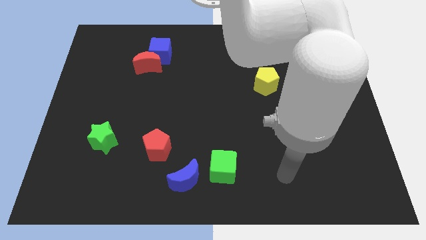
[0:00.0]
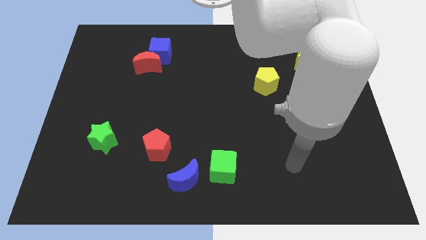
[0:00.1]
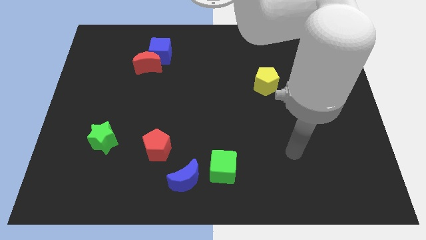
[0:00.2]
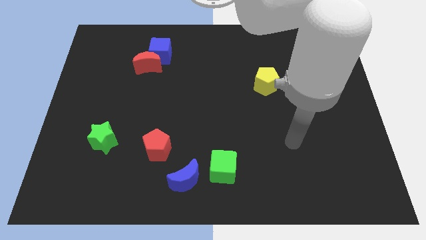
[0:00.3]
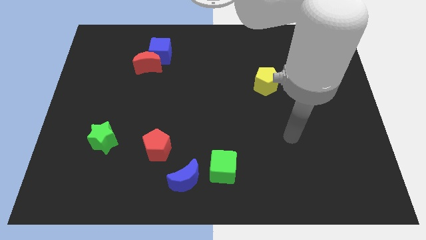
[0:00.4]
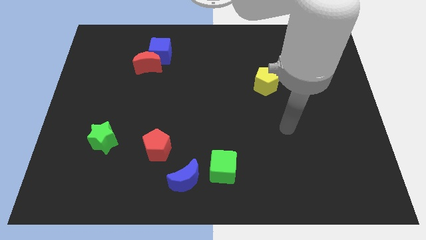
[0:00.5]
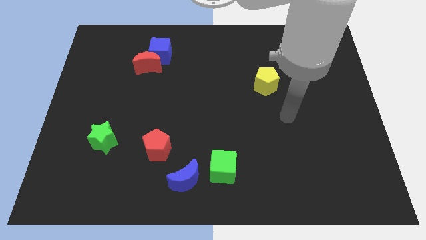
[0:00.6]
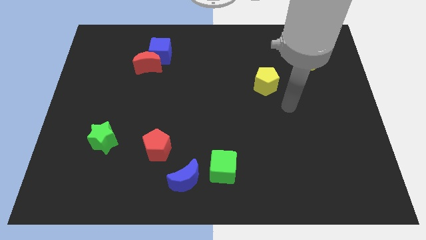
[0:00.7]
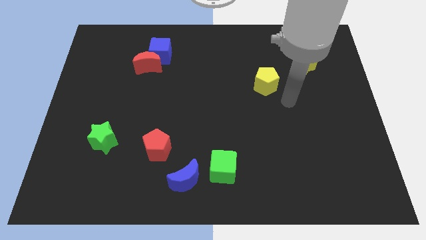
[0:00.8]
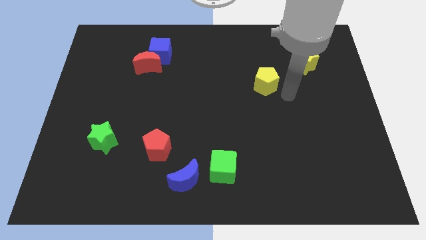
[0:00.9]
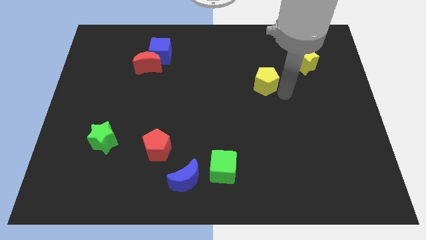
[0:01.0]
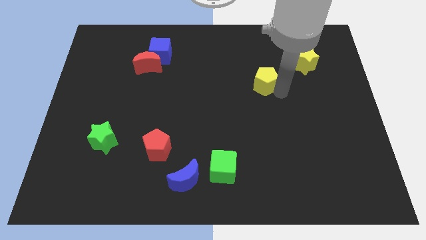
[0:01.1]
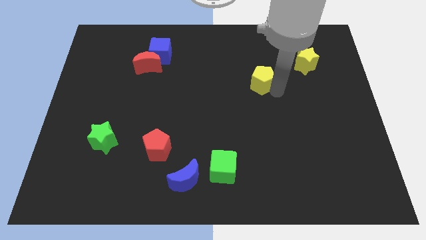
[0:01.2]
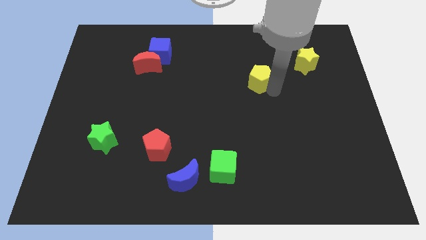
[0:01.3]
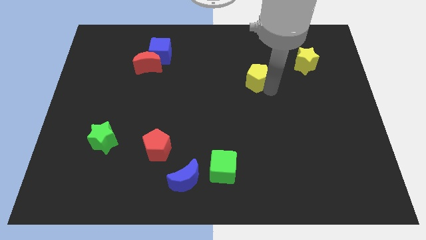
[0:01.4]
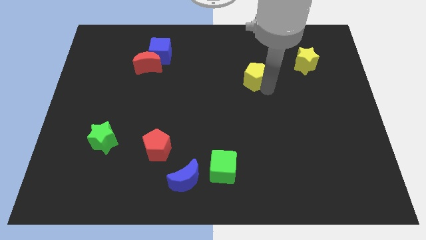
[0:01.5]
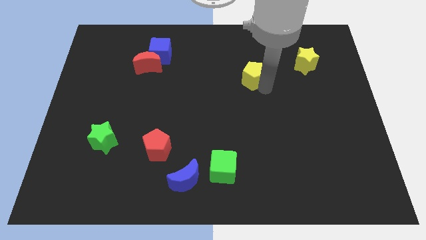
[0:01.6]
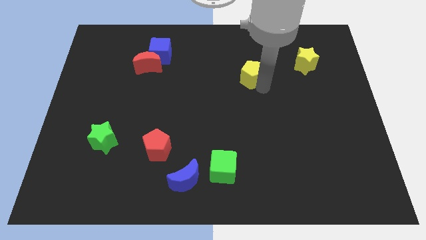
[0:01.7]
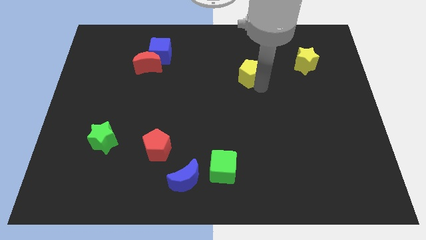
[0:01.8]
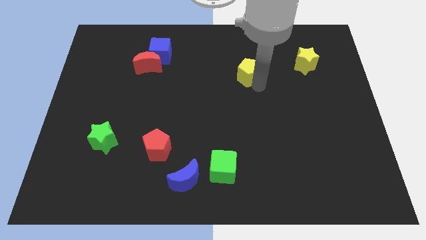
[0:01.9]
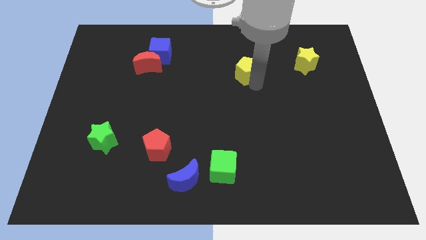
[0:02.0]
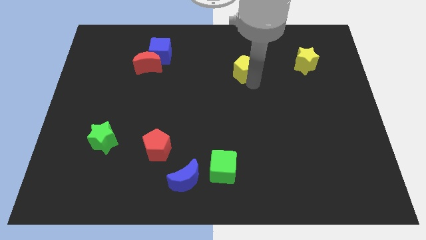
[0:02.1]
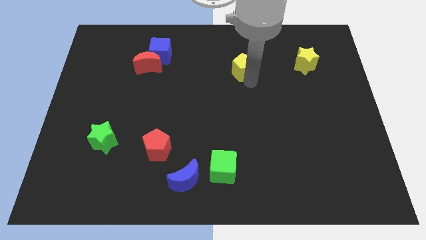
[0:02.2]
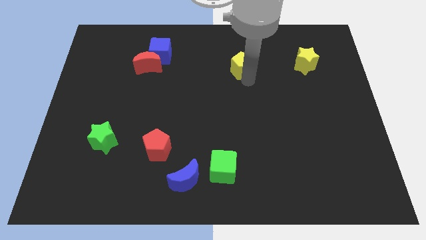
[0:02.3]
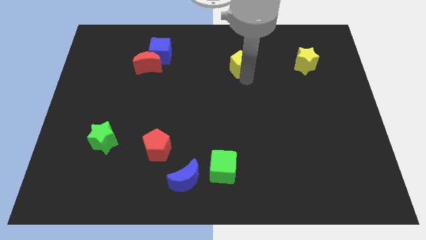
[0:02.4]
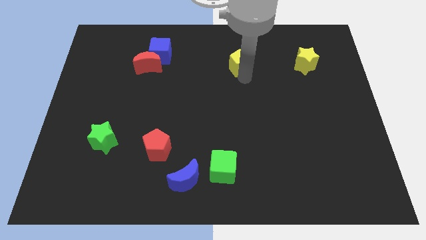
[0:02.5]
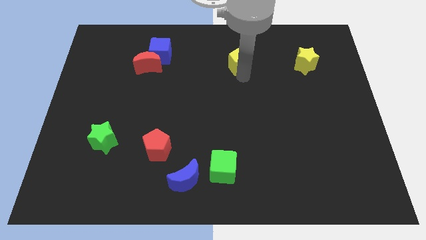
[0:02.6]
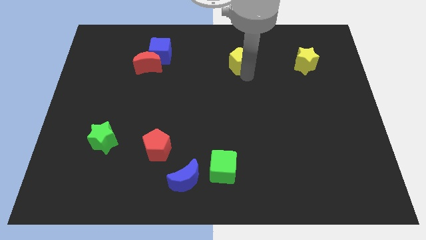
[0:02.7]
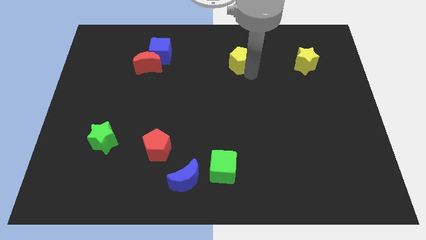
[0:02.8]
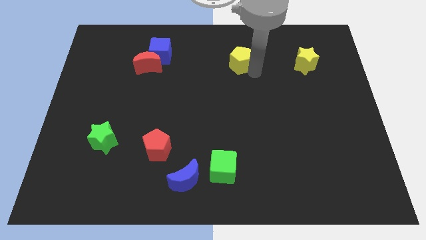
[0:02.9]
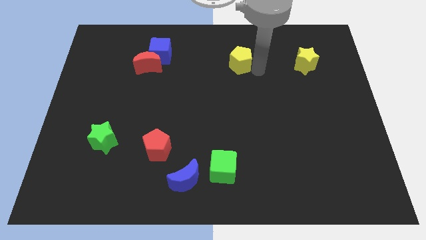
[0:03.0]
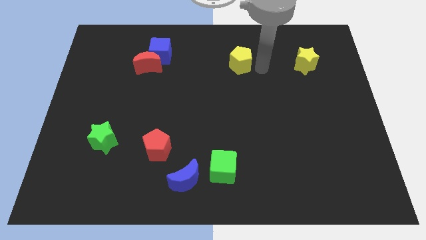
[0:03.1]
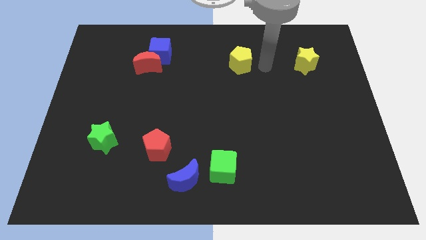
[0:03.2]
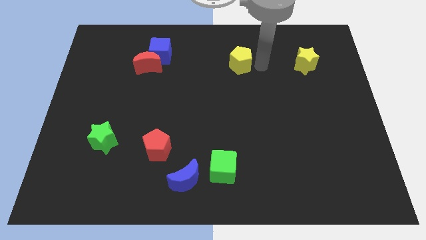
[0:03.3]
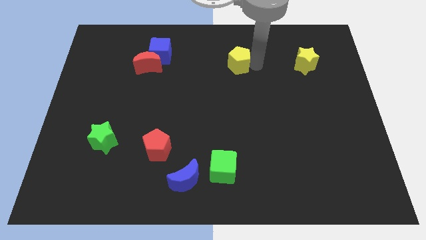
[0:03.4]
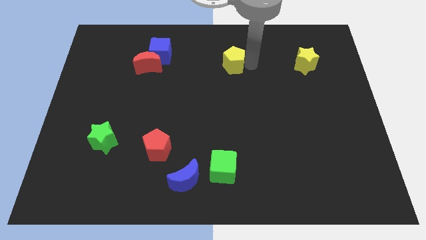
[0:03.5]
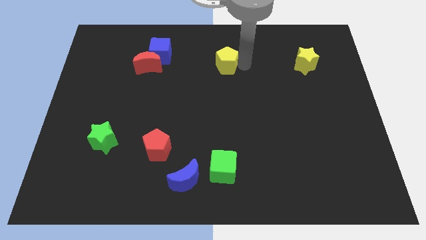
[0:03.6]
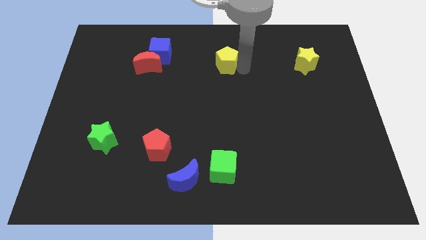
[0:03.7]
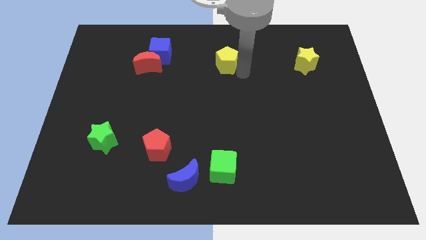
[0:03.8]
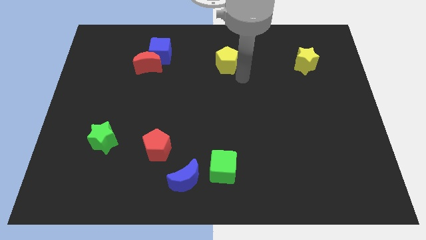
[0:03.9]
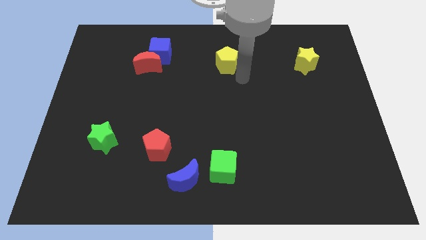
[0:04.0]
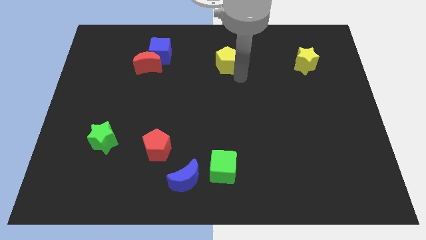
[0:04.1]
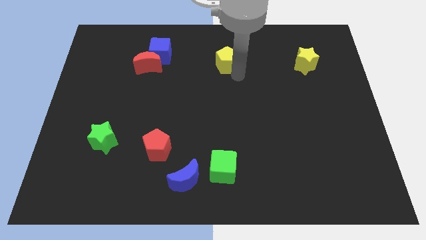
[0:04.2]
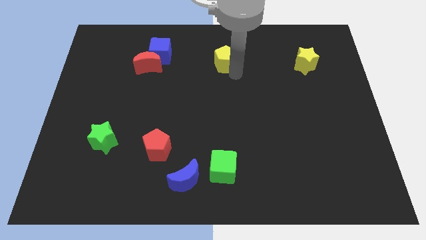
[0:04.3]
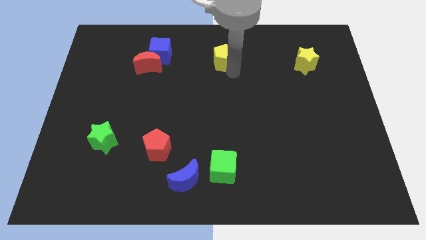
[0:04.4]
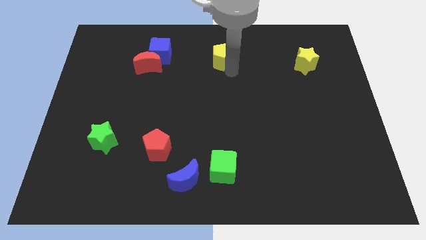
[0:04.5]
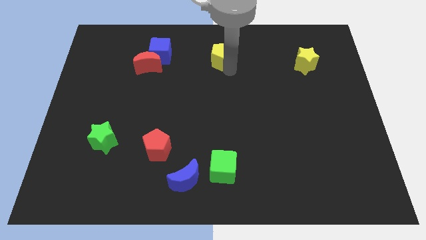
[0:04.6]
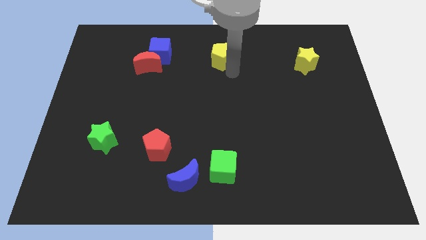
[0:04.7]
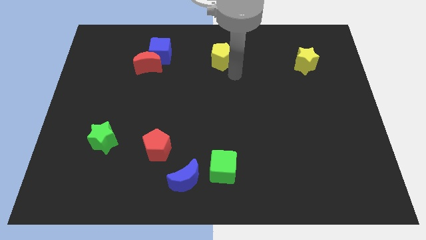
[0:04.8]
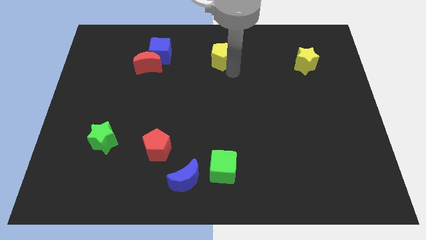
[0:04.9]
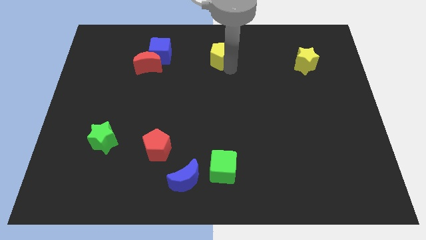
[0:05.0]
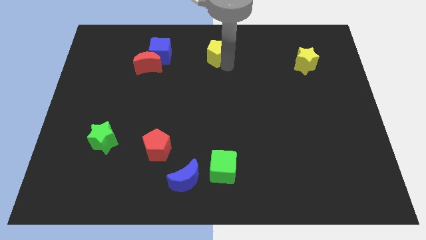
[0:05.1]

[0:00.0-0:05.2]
slide the yellow pentagon to the top

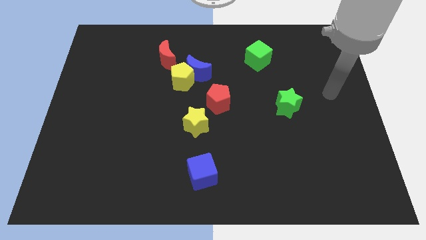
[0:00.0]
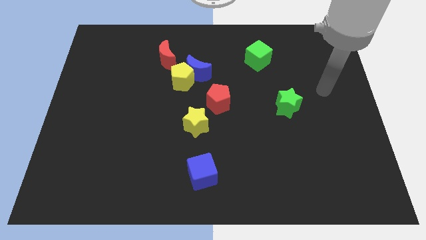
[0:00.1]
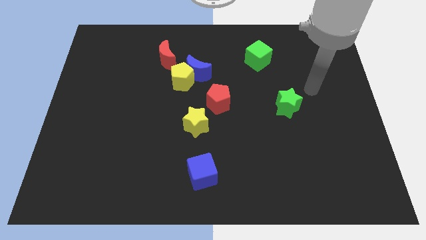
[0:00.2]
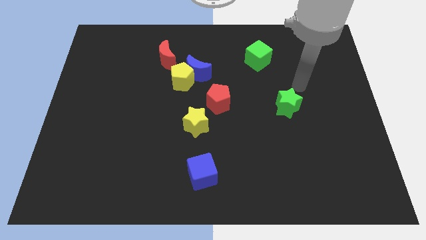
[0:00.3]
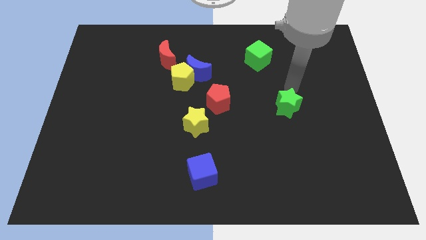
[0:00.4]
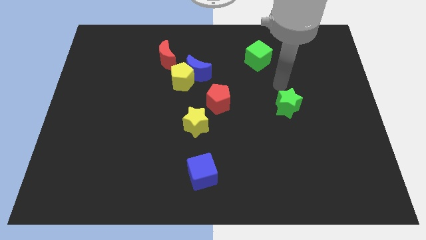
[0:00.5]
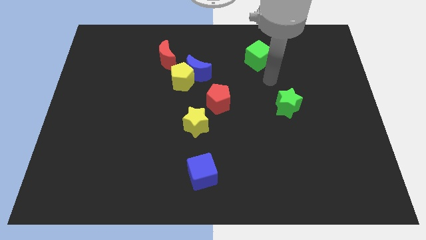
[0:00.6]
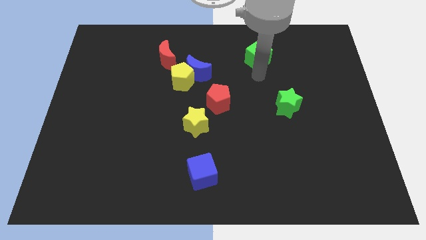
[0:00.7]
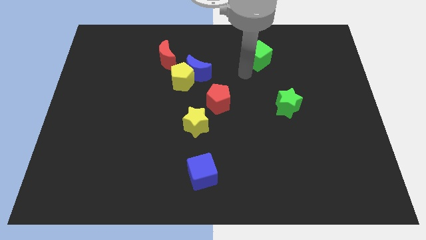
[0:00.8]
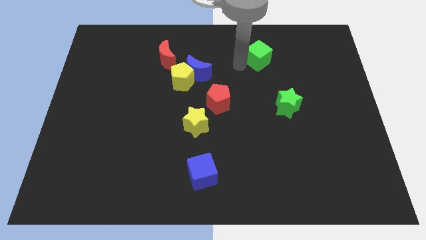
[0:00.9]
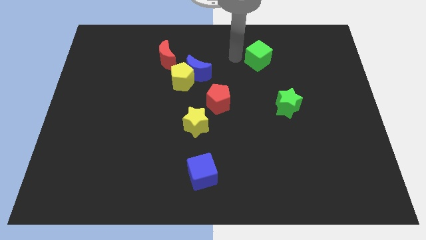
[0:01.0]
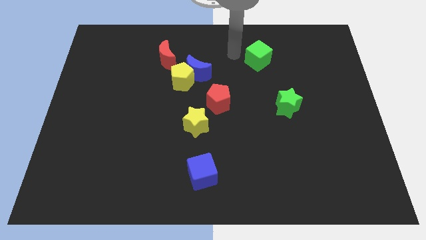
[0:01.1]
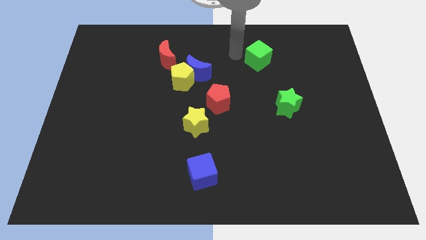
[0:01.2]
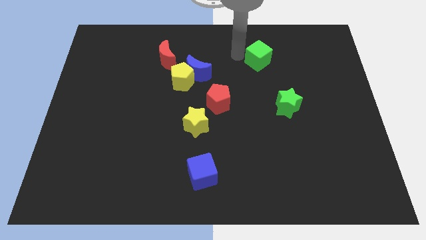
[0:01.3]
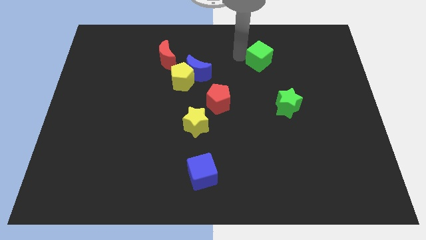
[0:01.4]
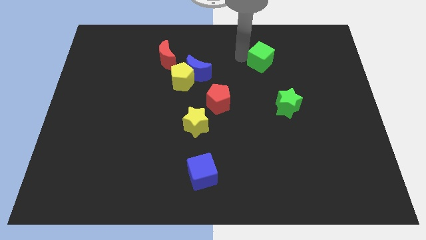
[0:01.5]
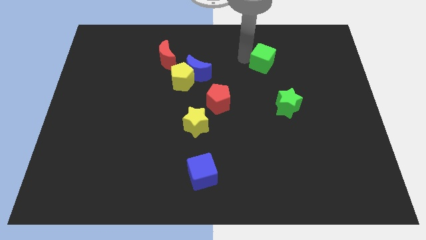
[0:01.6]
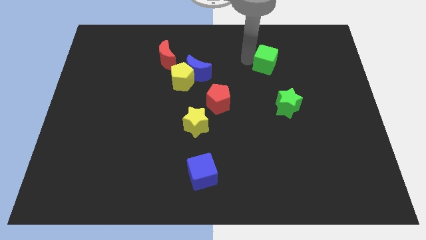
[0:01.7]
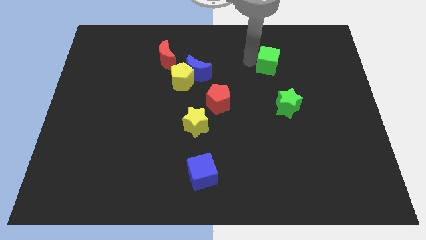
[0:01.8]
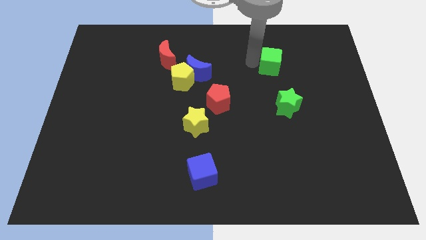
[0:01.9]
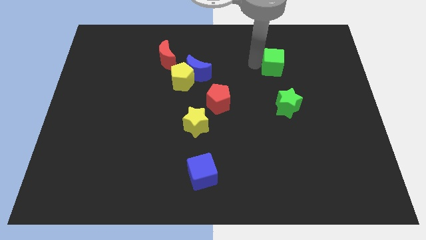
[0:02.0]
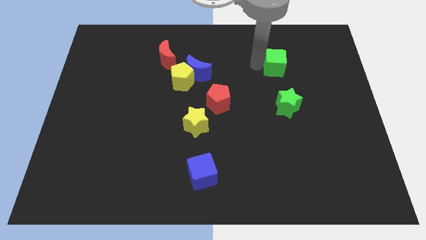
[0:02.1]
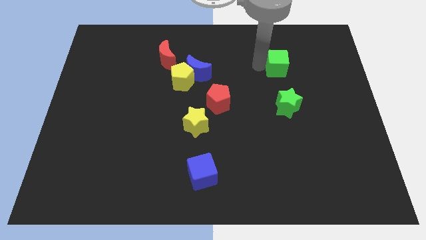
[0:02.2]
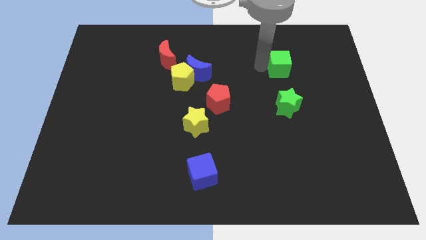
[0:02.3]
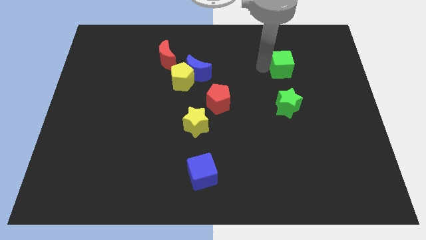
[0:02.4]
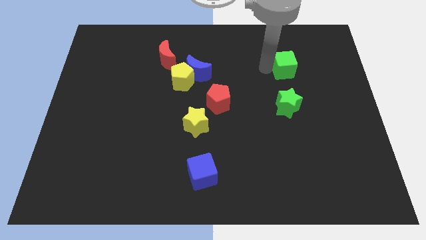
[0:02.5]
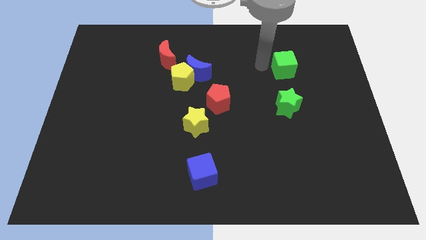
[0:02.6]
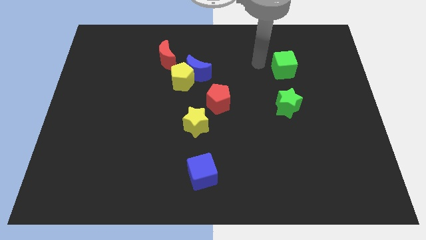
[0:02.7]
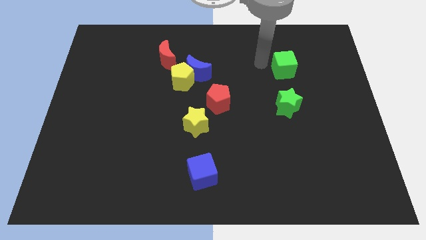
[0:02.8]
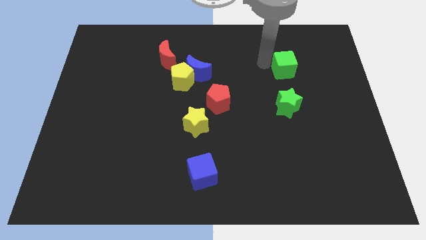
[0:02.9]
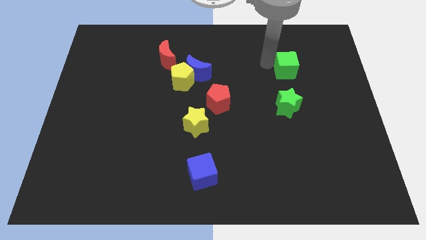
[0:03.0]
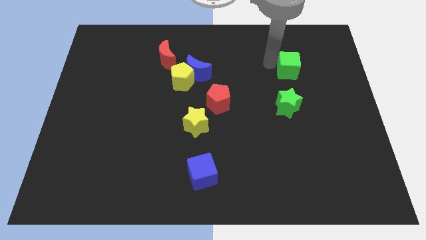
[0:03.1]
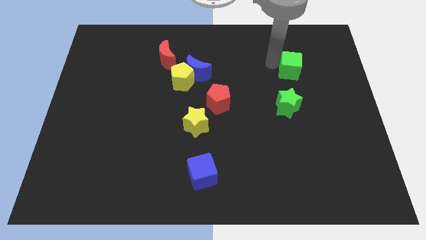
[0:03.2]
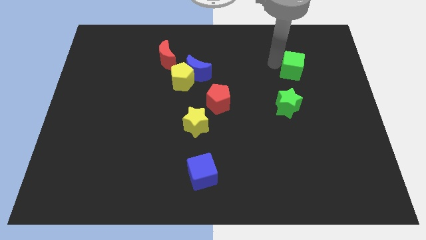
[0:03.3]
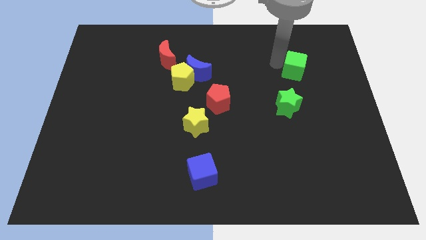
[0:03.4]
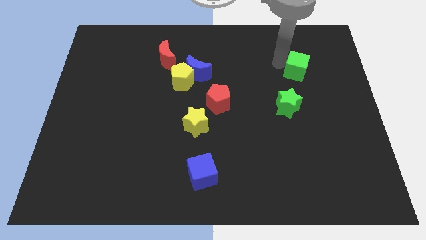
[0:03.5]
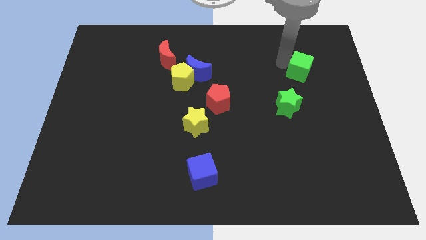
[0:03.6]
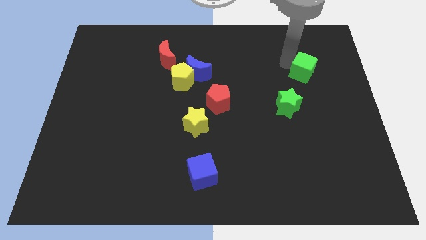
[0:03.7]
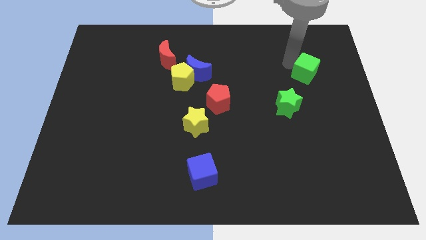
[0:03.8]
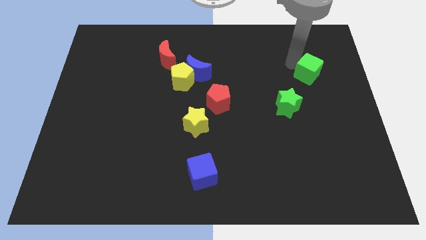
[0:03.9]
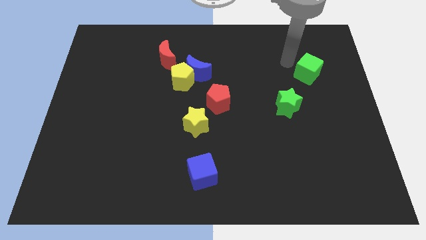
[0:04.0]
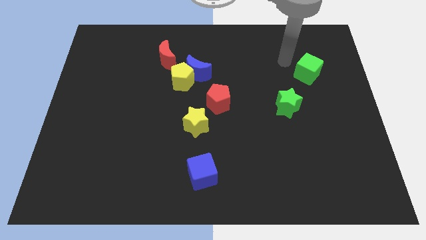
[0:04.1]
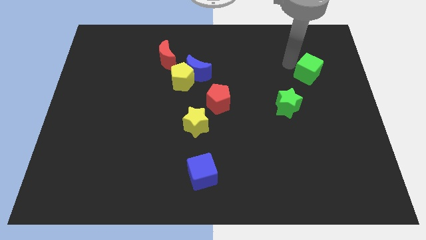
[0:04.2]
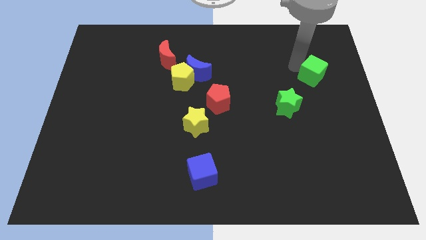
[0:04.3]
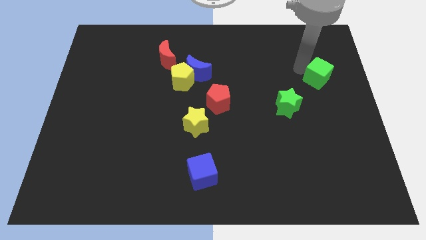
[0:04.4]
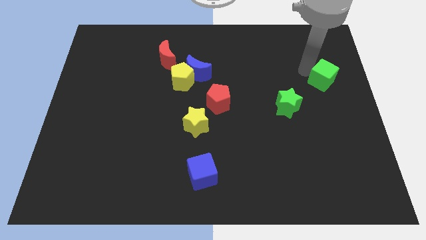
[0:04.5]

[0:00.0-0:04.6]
slide the green cube to the right side of the board
